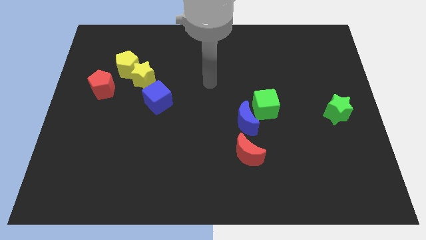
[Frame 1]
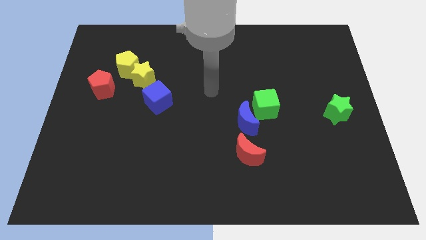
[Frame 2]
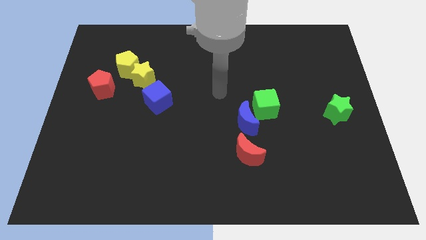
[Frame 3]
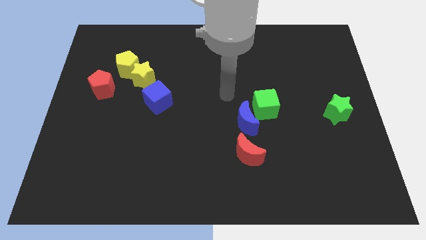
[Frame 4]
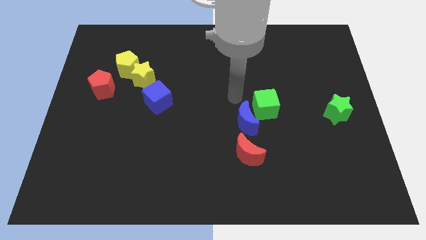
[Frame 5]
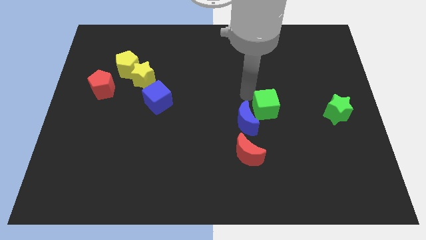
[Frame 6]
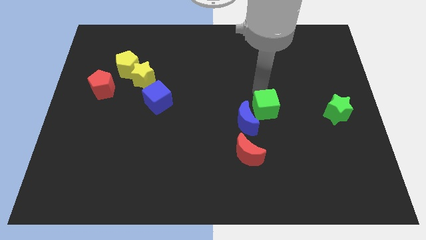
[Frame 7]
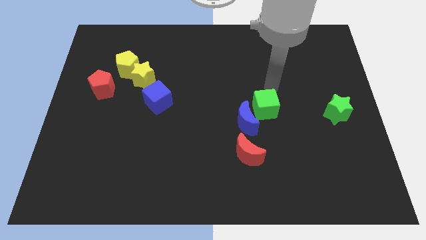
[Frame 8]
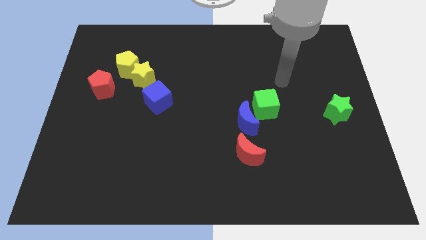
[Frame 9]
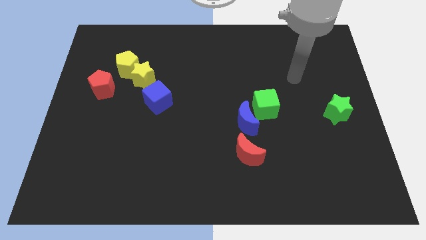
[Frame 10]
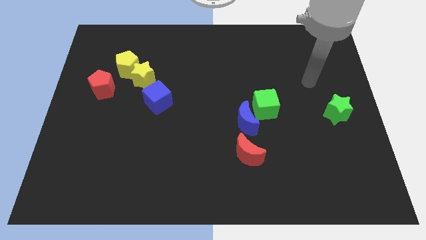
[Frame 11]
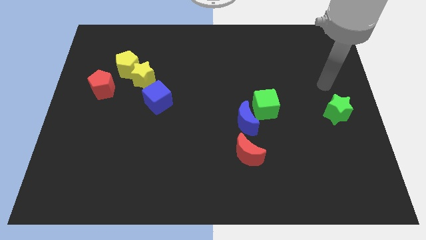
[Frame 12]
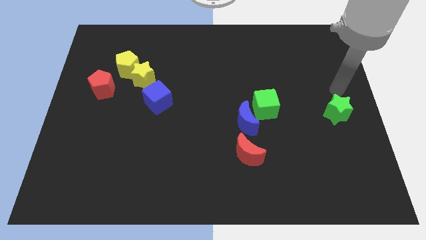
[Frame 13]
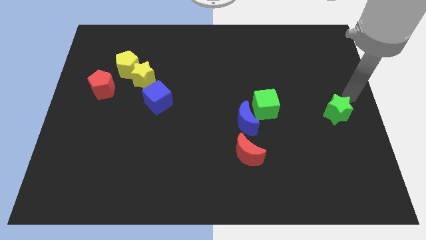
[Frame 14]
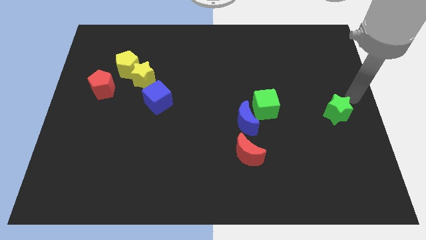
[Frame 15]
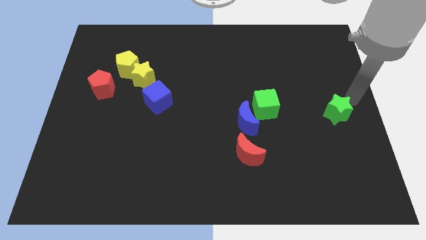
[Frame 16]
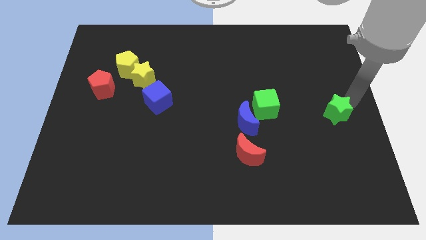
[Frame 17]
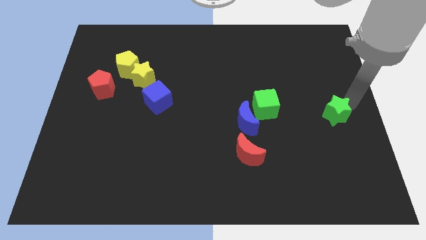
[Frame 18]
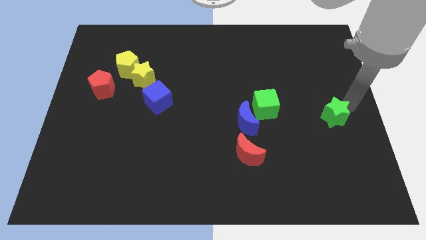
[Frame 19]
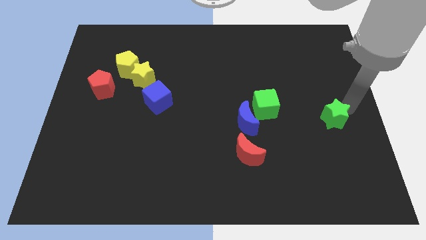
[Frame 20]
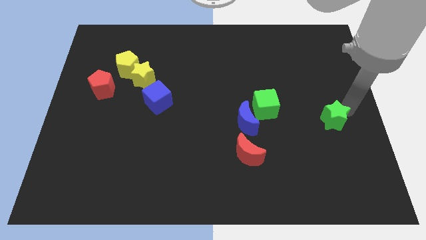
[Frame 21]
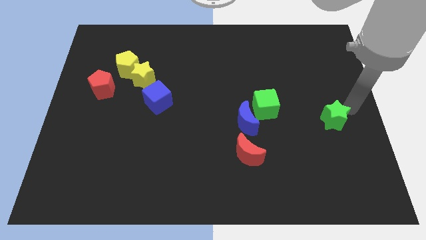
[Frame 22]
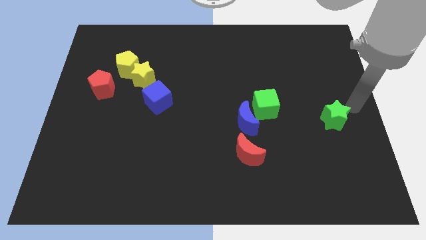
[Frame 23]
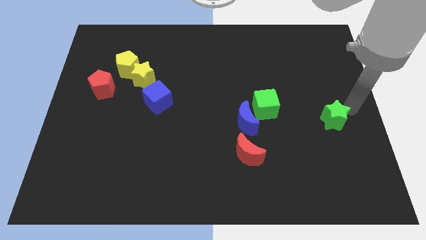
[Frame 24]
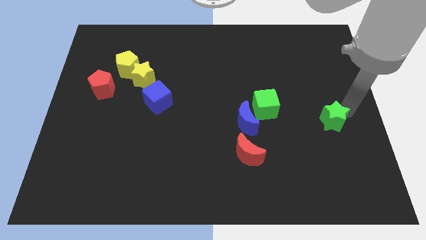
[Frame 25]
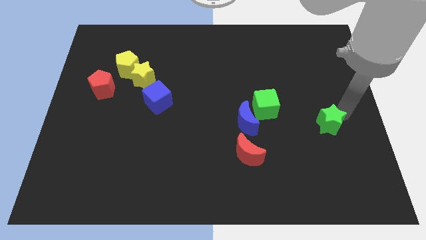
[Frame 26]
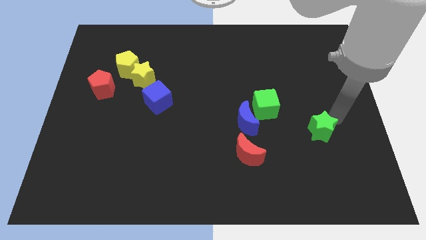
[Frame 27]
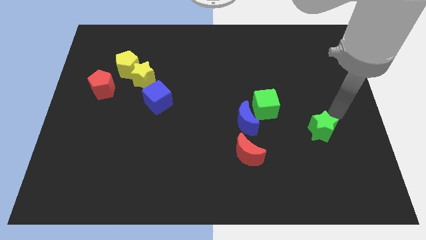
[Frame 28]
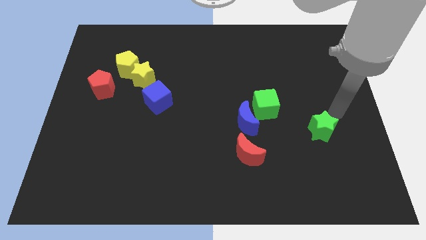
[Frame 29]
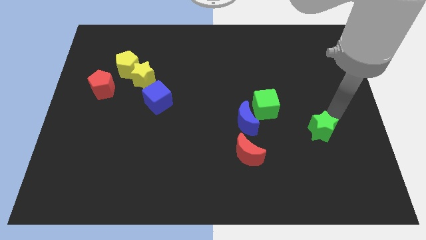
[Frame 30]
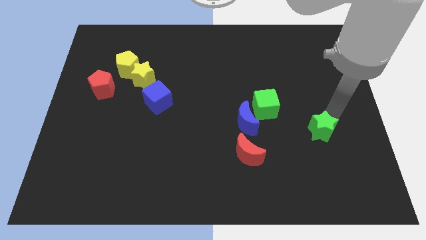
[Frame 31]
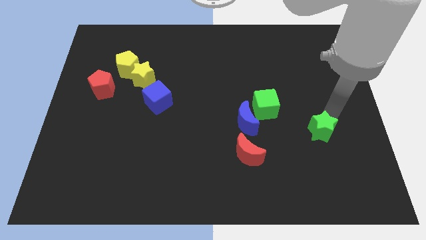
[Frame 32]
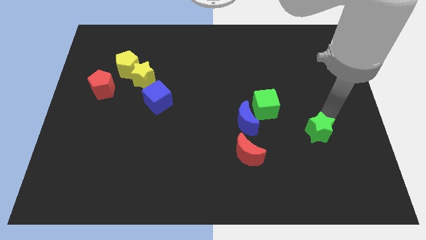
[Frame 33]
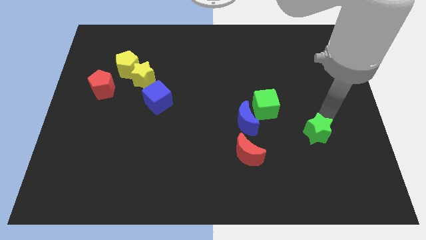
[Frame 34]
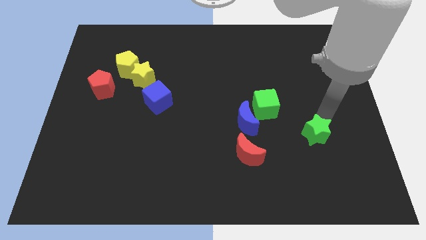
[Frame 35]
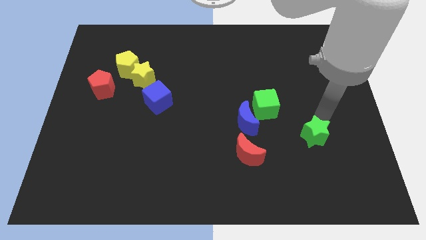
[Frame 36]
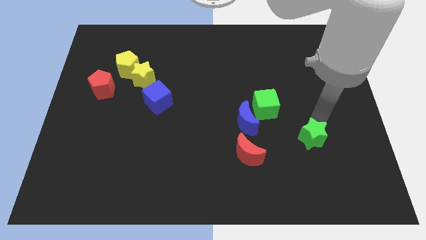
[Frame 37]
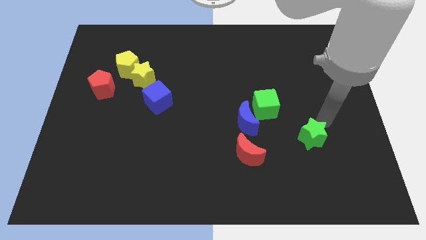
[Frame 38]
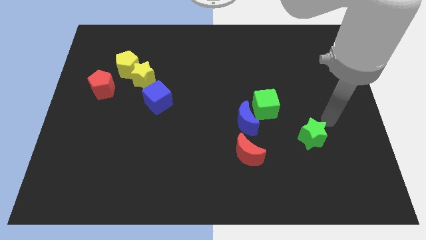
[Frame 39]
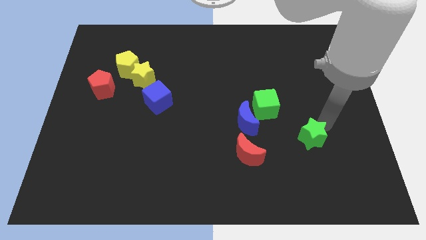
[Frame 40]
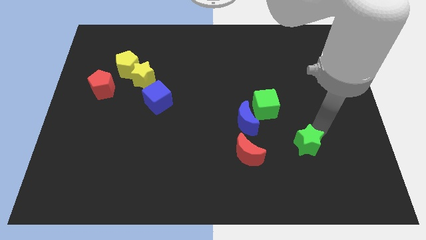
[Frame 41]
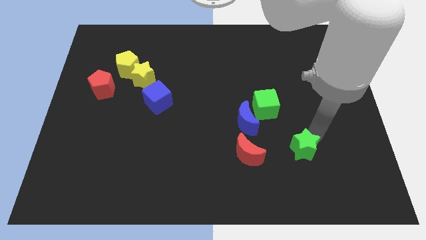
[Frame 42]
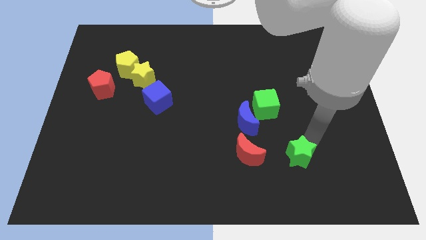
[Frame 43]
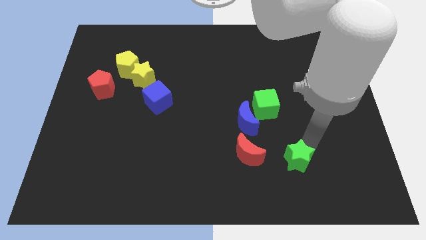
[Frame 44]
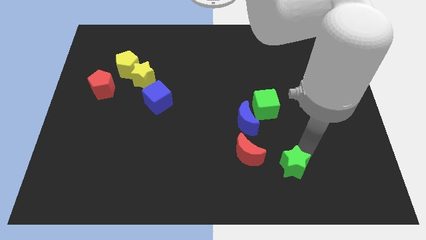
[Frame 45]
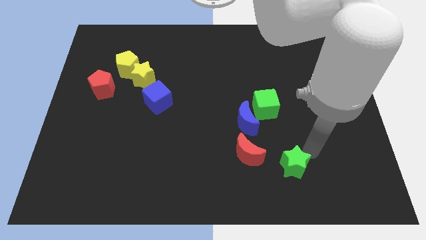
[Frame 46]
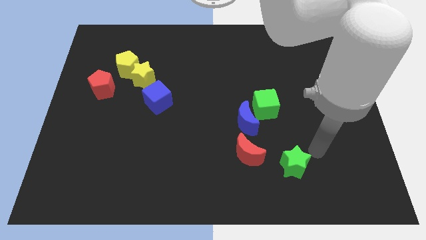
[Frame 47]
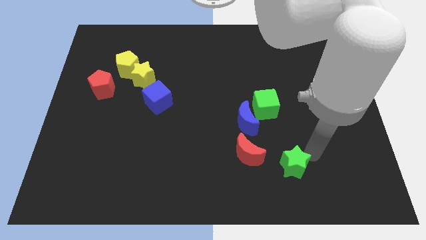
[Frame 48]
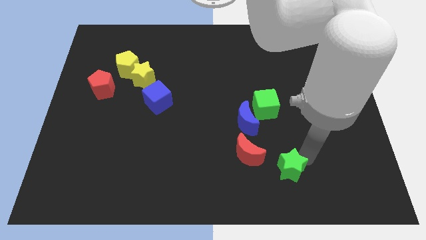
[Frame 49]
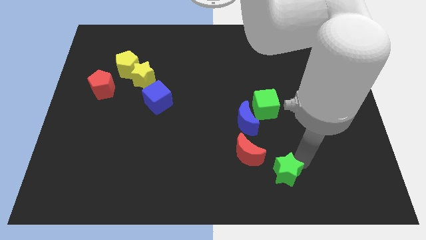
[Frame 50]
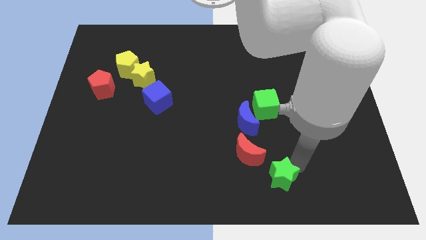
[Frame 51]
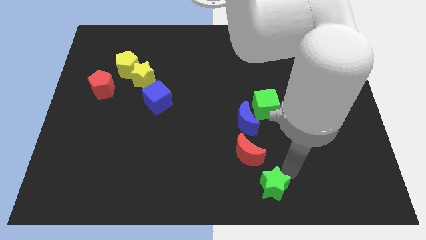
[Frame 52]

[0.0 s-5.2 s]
push the green star to the bottom

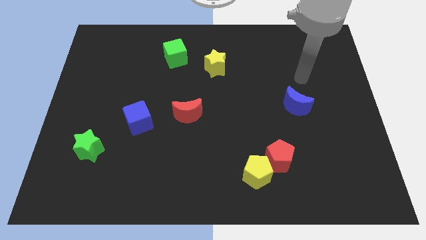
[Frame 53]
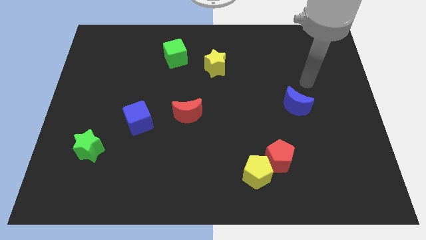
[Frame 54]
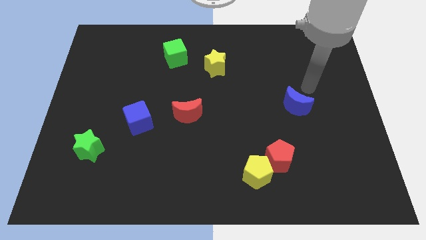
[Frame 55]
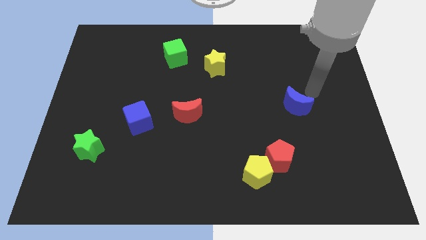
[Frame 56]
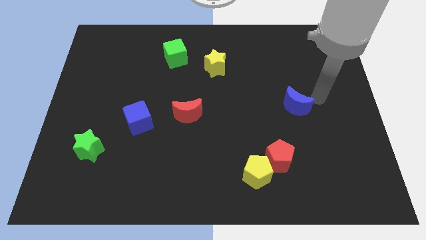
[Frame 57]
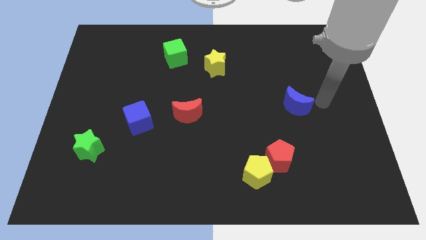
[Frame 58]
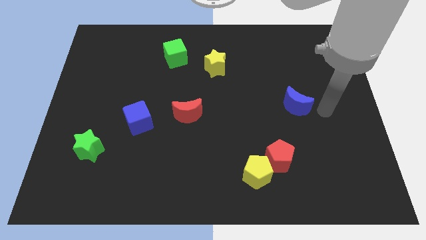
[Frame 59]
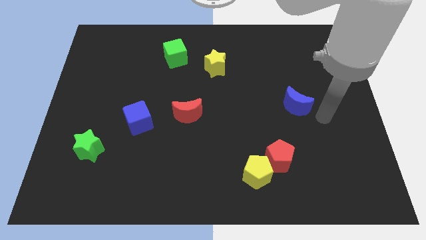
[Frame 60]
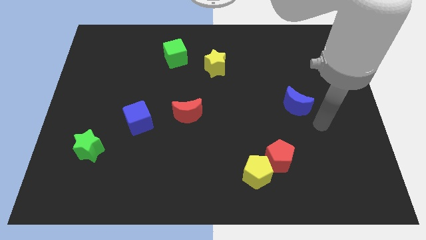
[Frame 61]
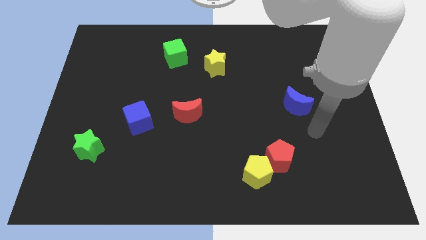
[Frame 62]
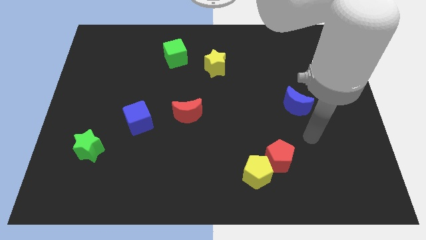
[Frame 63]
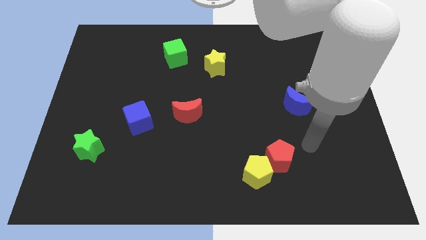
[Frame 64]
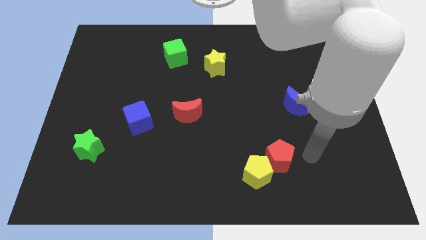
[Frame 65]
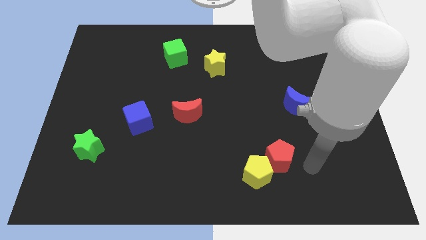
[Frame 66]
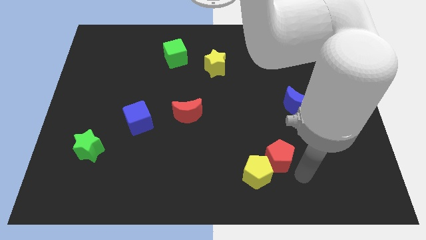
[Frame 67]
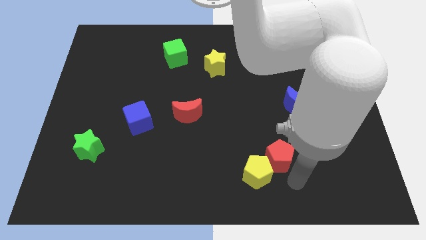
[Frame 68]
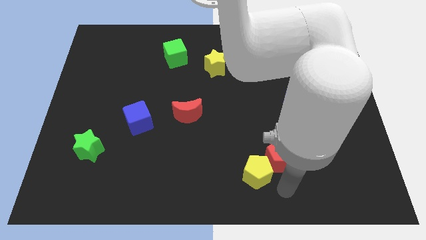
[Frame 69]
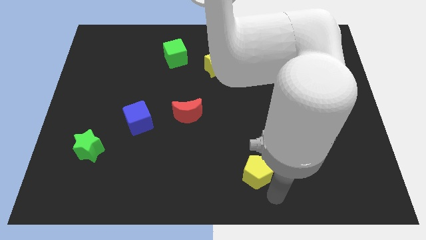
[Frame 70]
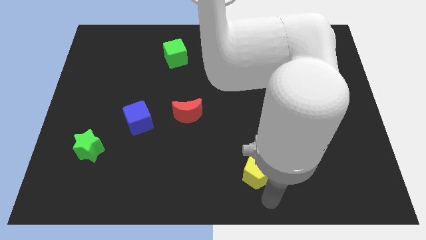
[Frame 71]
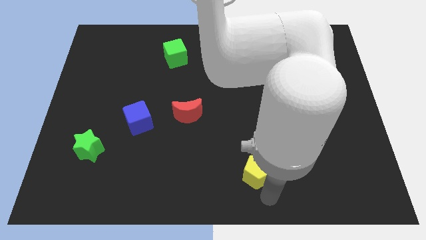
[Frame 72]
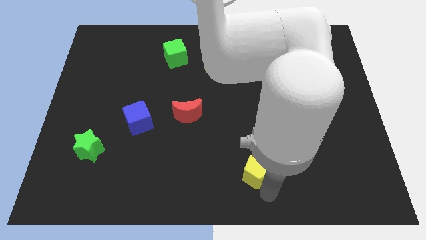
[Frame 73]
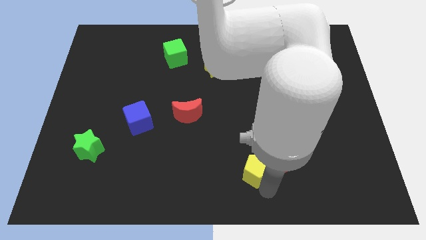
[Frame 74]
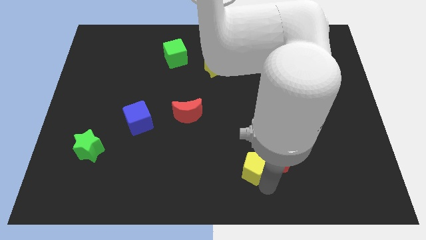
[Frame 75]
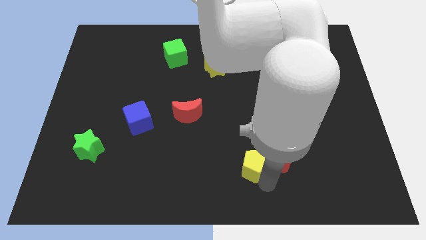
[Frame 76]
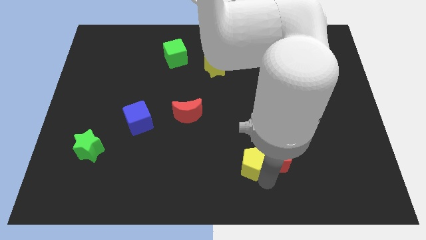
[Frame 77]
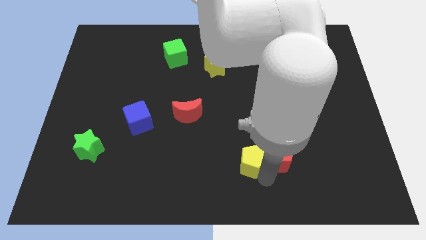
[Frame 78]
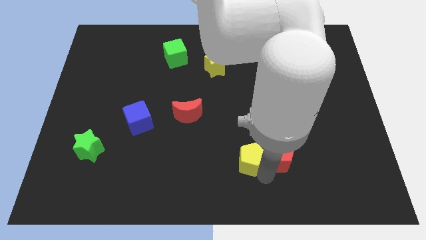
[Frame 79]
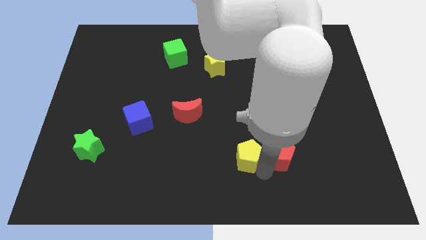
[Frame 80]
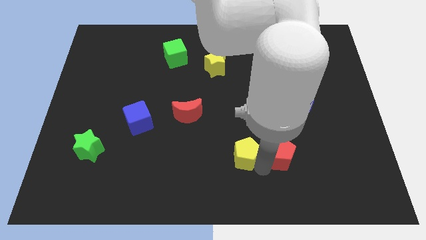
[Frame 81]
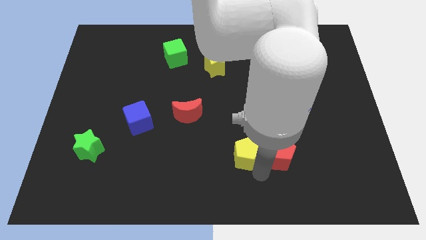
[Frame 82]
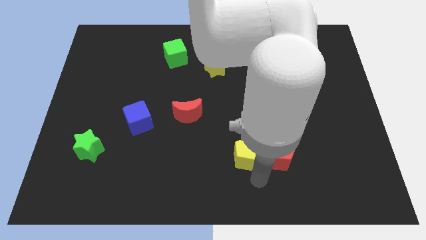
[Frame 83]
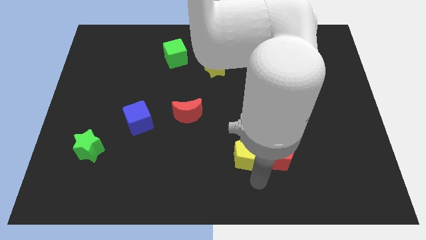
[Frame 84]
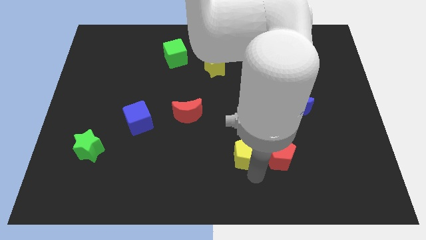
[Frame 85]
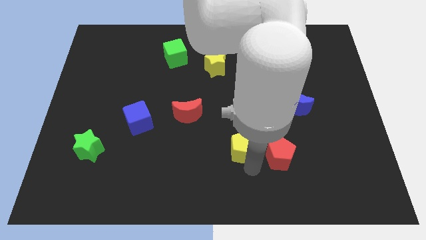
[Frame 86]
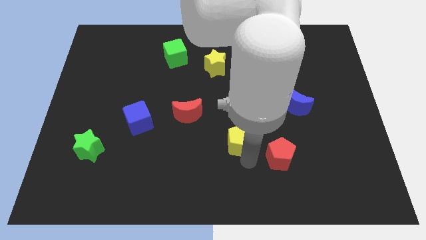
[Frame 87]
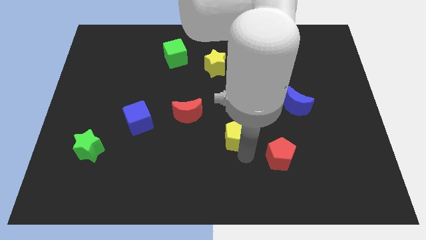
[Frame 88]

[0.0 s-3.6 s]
put the yellow pentagon to the middle
